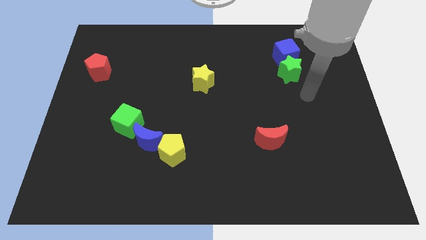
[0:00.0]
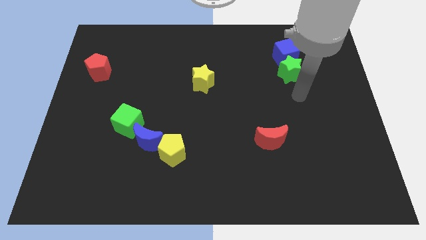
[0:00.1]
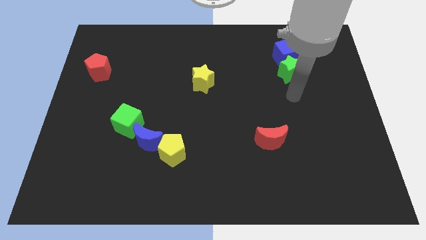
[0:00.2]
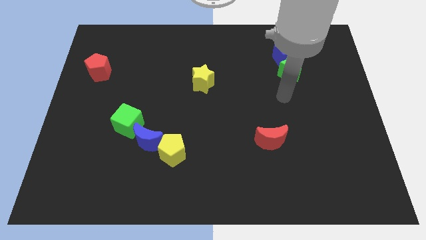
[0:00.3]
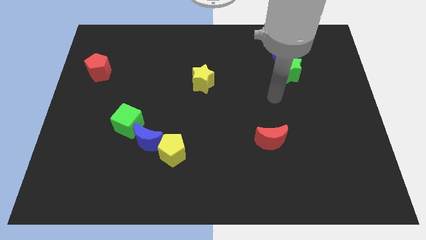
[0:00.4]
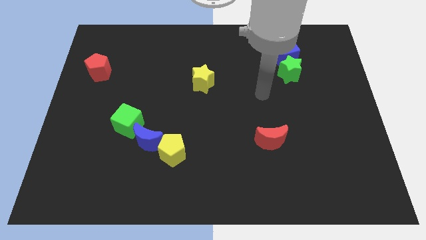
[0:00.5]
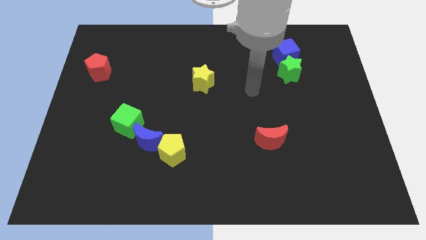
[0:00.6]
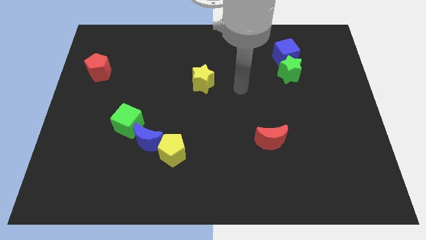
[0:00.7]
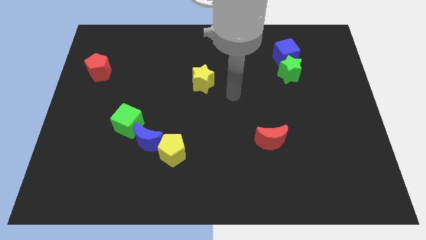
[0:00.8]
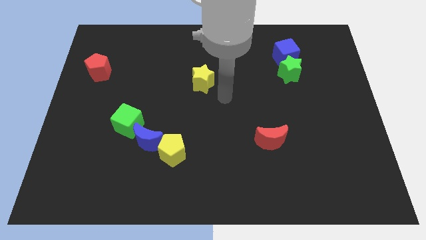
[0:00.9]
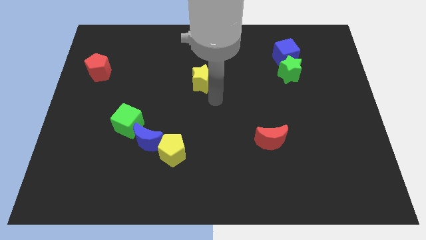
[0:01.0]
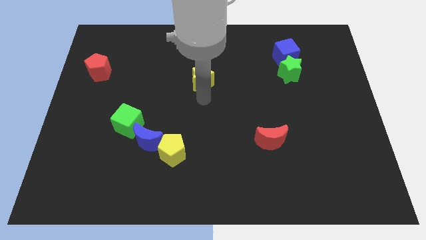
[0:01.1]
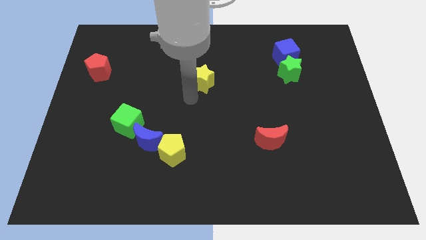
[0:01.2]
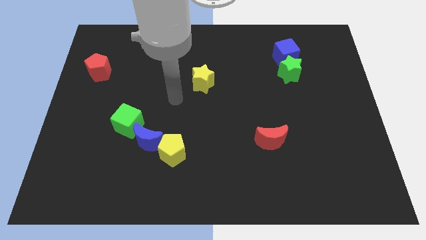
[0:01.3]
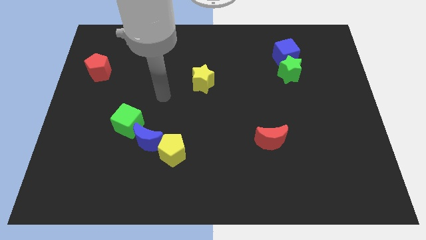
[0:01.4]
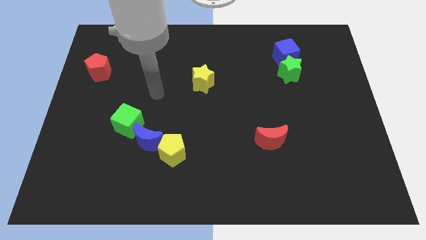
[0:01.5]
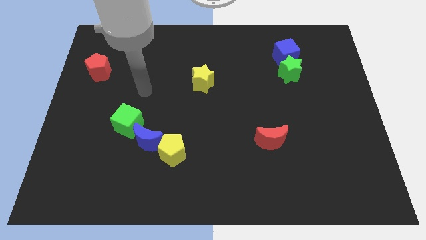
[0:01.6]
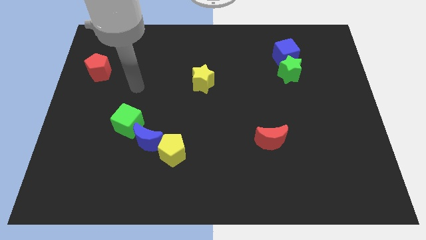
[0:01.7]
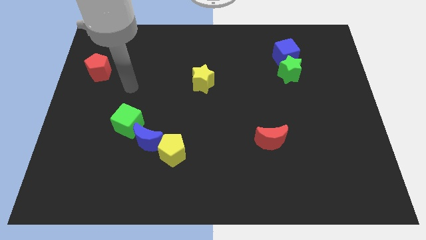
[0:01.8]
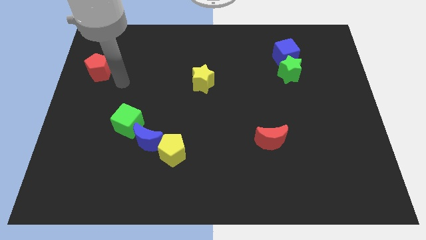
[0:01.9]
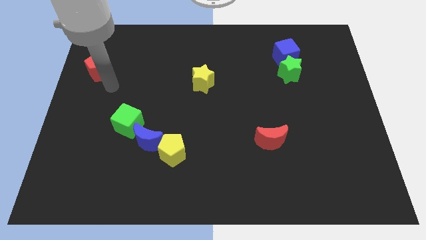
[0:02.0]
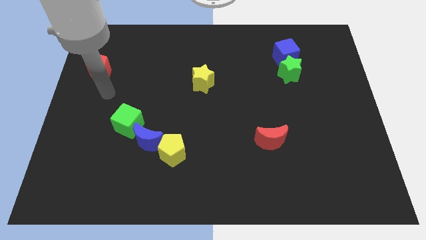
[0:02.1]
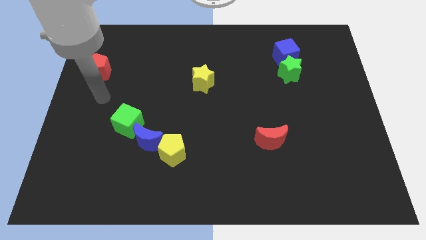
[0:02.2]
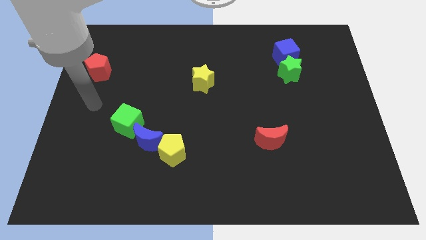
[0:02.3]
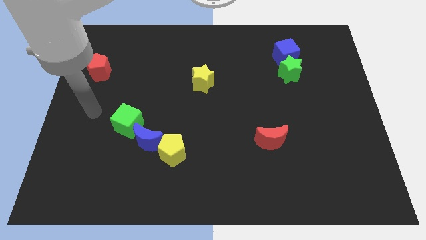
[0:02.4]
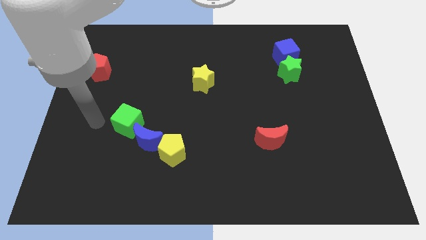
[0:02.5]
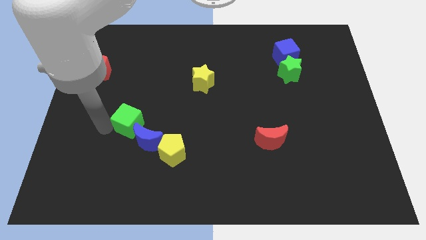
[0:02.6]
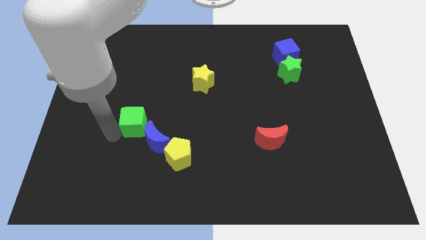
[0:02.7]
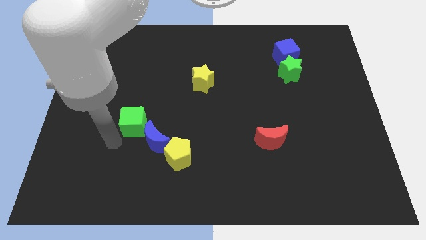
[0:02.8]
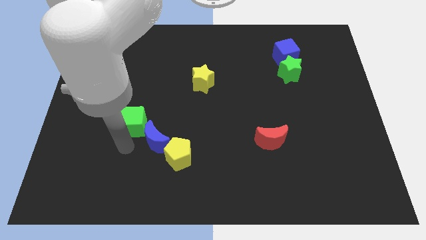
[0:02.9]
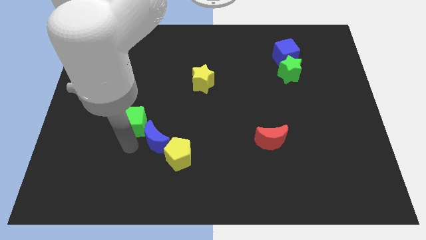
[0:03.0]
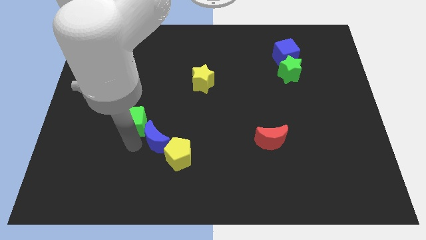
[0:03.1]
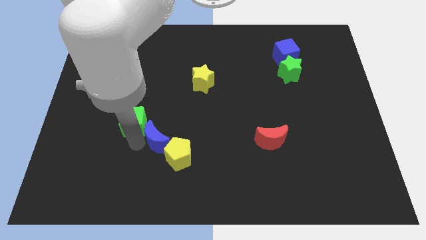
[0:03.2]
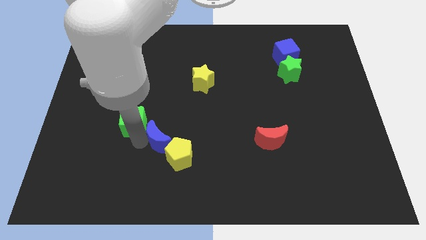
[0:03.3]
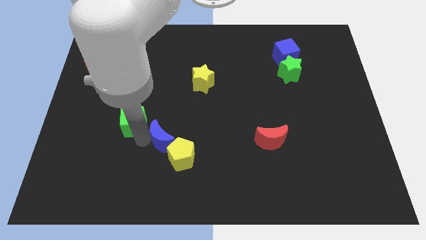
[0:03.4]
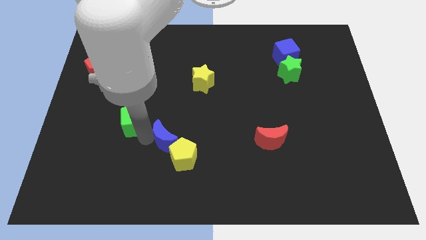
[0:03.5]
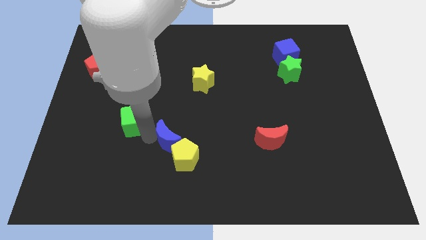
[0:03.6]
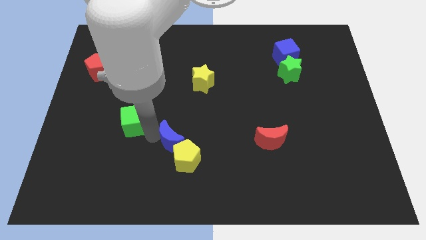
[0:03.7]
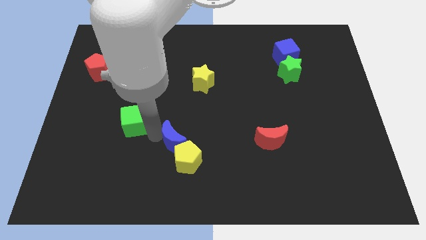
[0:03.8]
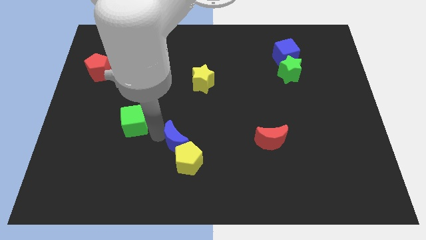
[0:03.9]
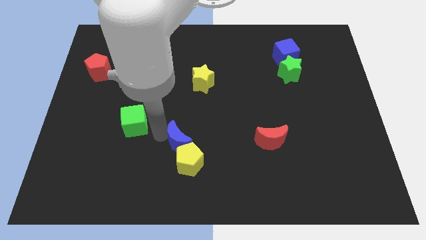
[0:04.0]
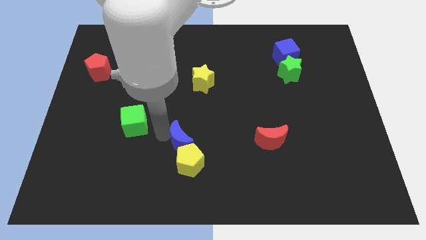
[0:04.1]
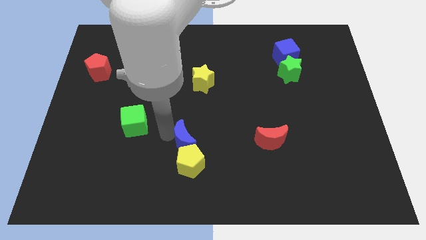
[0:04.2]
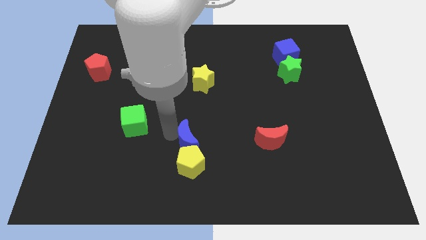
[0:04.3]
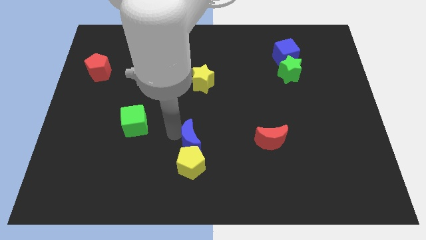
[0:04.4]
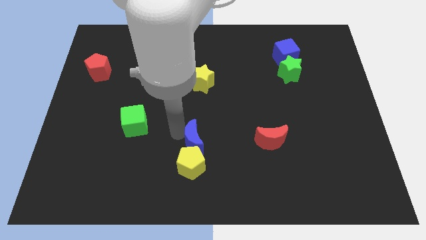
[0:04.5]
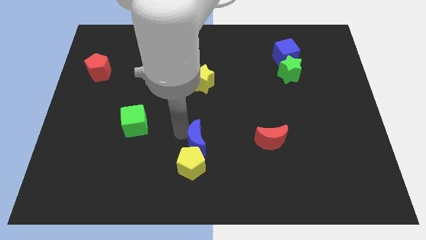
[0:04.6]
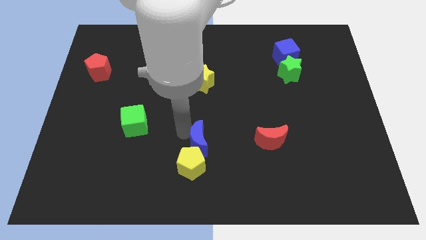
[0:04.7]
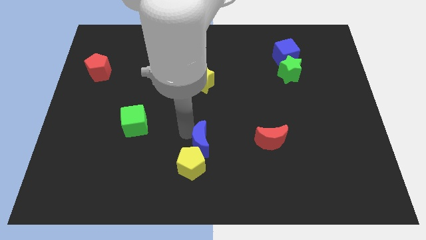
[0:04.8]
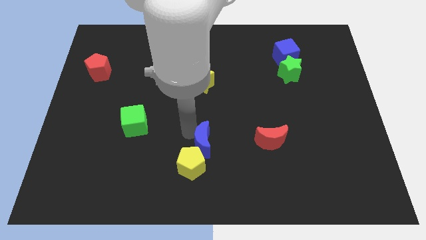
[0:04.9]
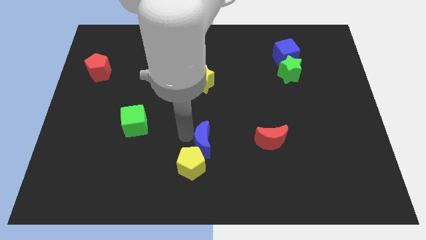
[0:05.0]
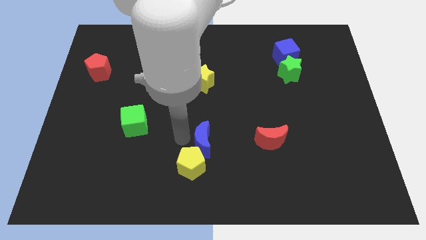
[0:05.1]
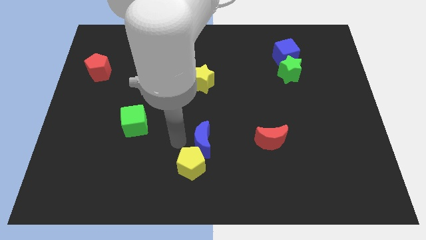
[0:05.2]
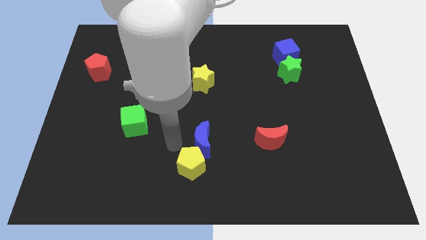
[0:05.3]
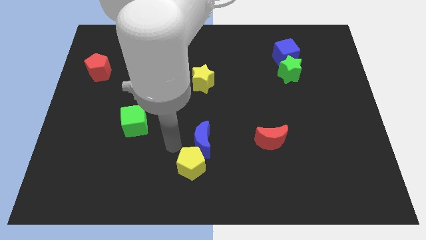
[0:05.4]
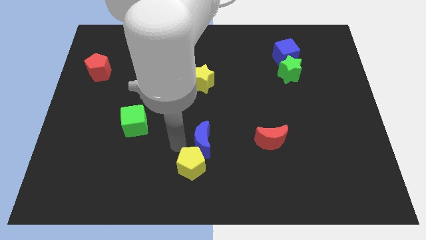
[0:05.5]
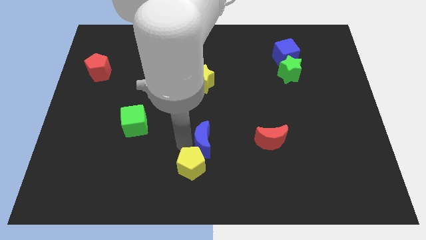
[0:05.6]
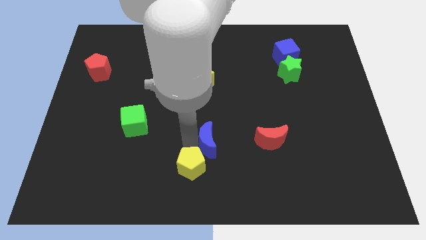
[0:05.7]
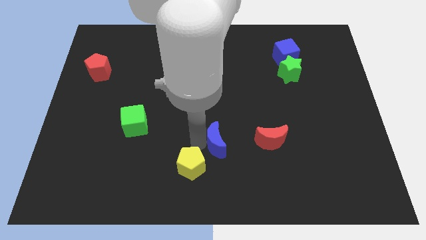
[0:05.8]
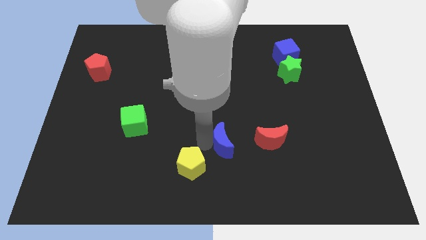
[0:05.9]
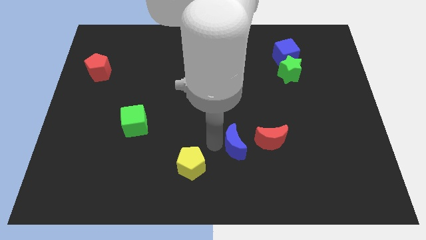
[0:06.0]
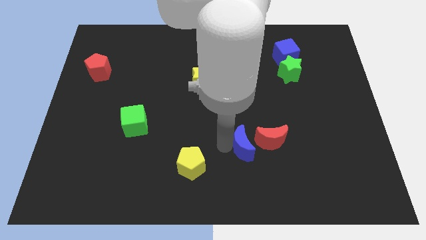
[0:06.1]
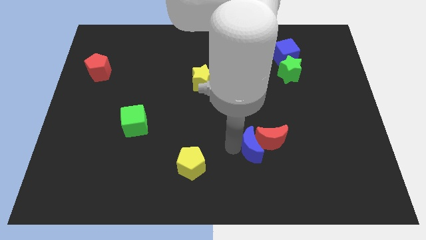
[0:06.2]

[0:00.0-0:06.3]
slide the blue moon next to the red moon

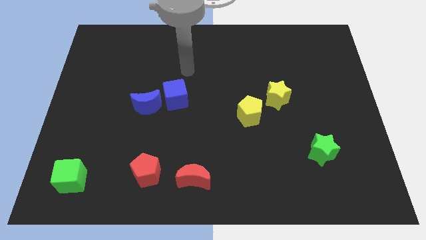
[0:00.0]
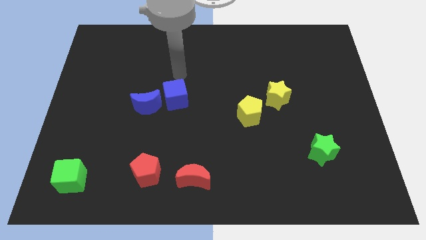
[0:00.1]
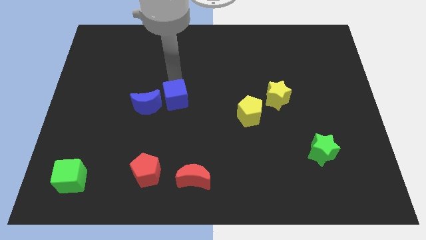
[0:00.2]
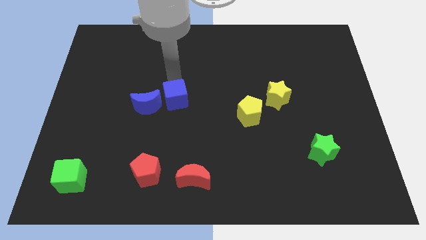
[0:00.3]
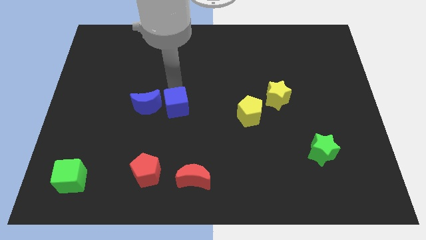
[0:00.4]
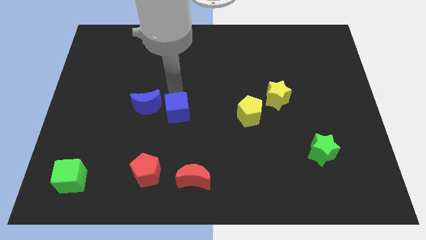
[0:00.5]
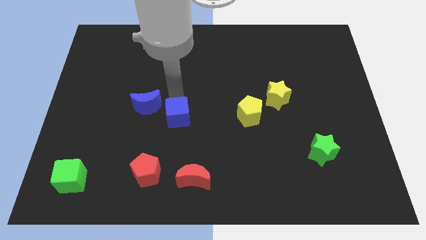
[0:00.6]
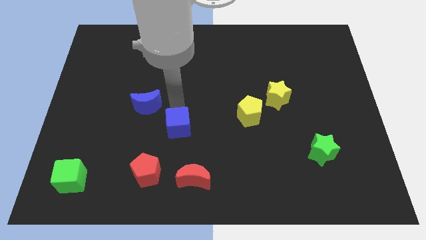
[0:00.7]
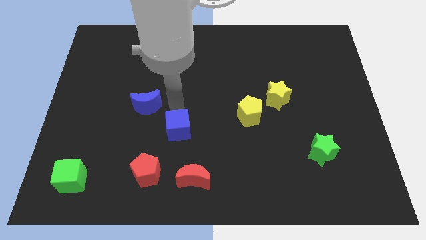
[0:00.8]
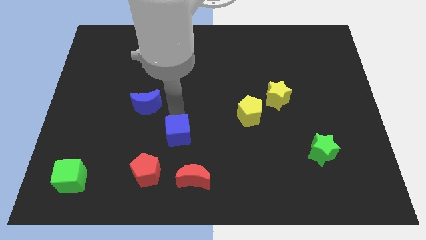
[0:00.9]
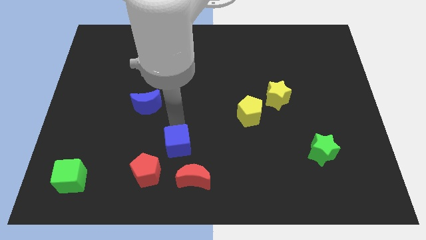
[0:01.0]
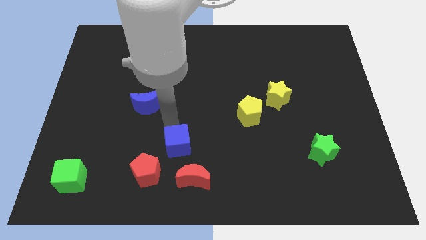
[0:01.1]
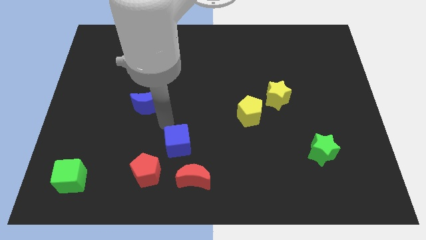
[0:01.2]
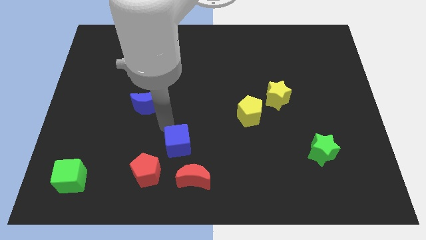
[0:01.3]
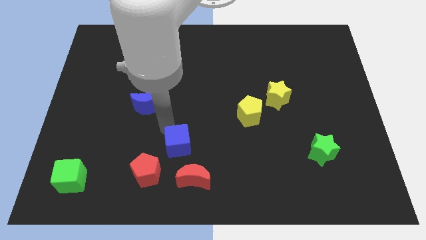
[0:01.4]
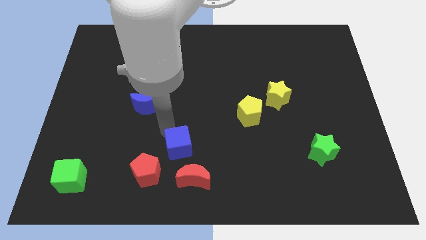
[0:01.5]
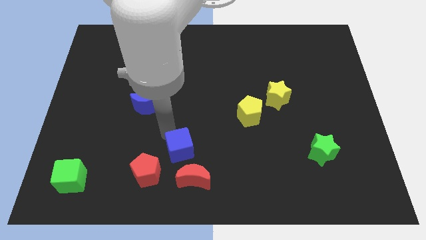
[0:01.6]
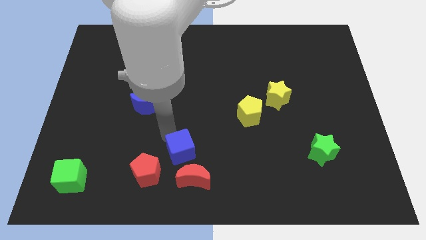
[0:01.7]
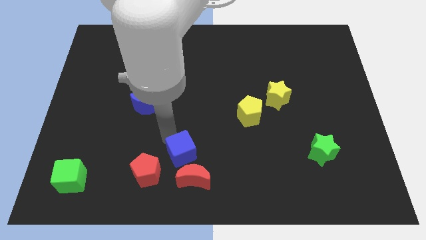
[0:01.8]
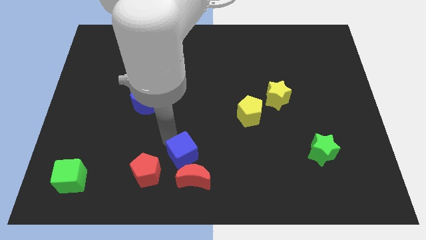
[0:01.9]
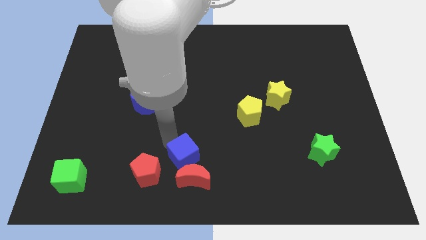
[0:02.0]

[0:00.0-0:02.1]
move the blue cube next to the red moon
